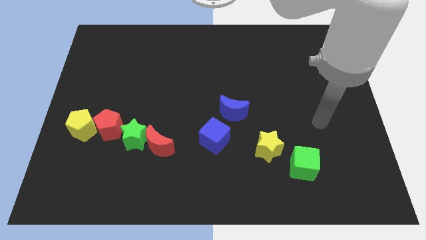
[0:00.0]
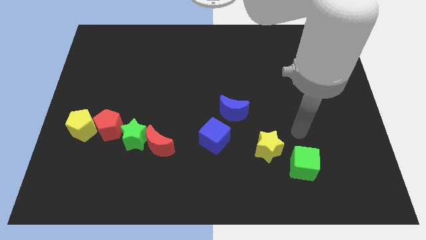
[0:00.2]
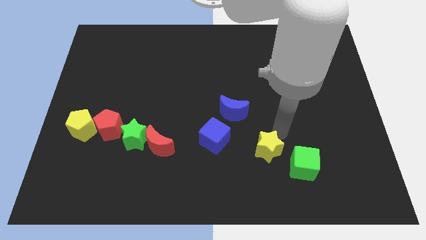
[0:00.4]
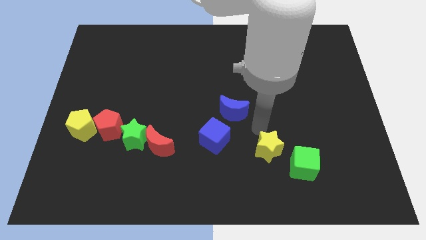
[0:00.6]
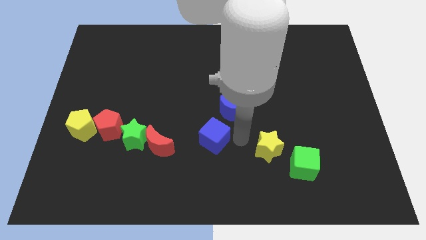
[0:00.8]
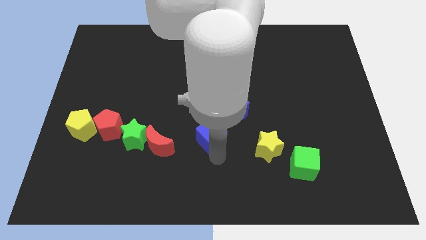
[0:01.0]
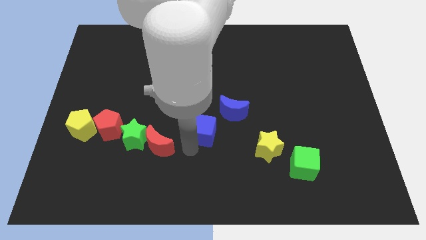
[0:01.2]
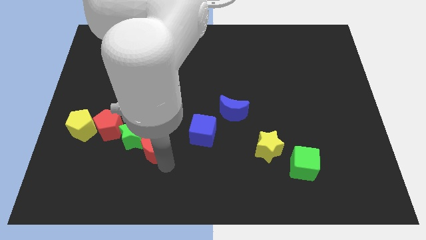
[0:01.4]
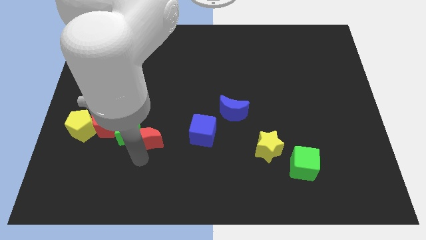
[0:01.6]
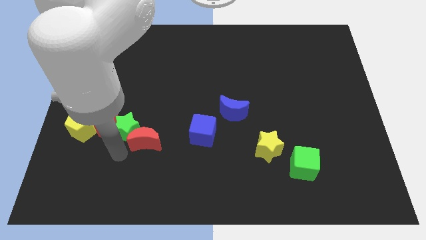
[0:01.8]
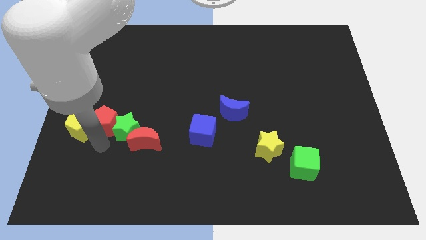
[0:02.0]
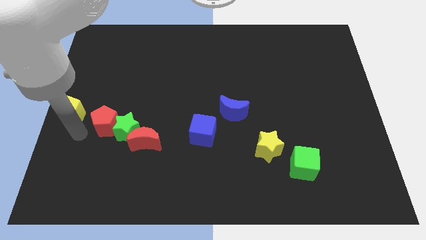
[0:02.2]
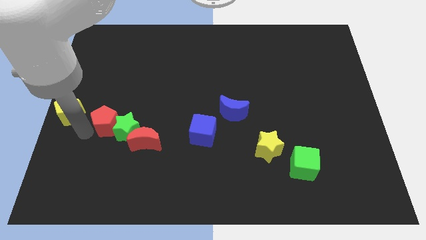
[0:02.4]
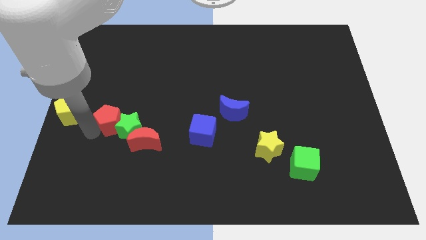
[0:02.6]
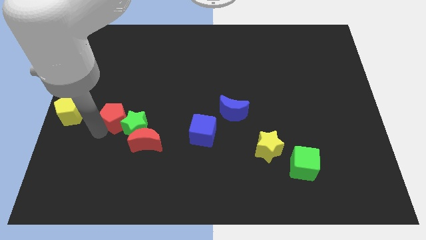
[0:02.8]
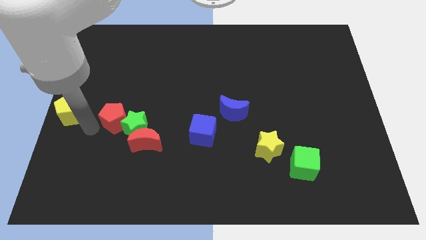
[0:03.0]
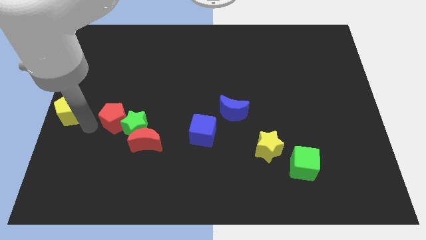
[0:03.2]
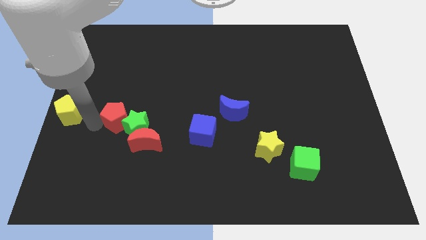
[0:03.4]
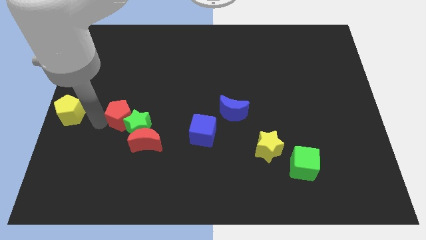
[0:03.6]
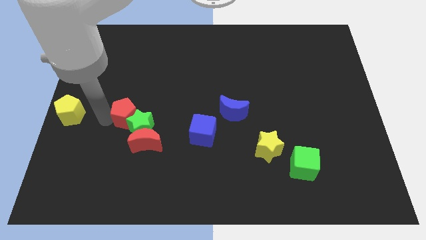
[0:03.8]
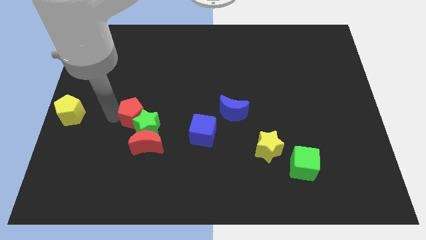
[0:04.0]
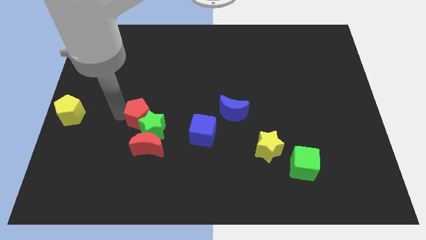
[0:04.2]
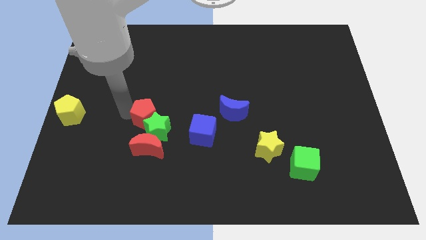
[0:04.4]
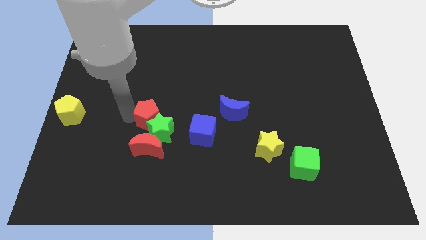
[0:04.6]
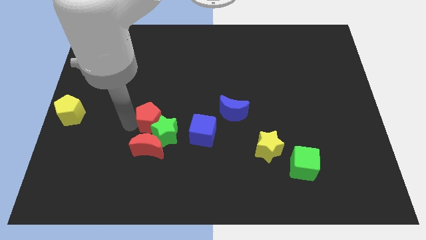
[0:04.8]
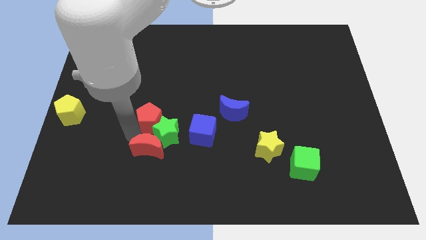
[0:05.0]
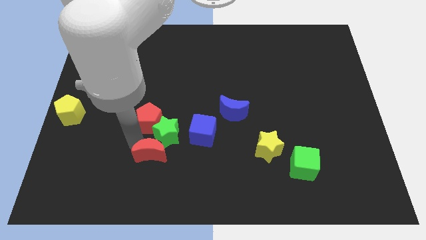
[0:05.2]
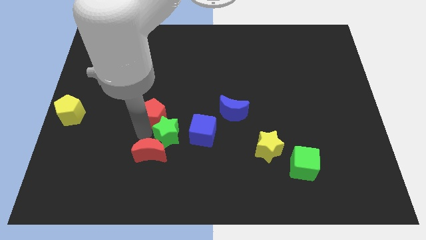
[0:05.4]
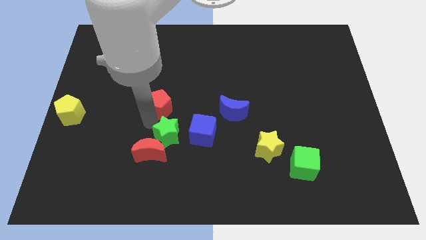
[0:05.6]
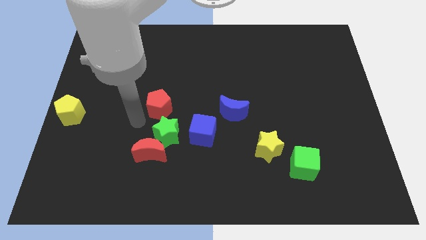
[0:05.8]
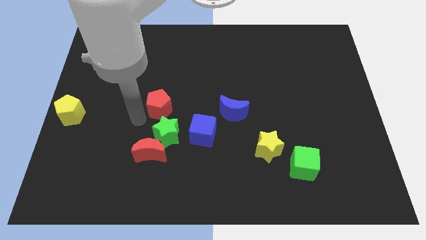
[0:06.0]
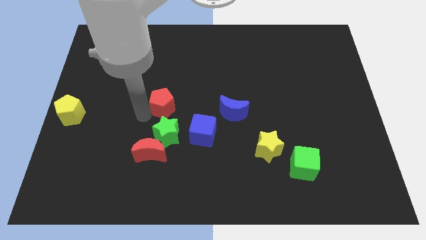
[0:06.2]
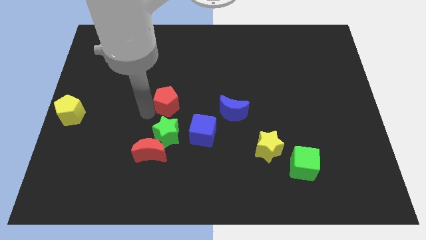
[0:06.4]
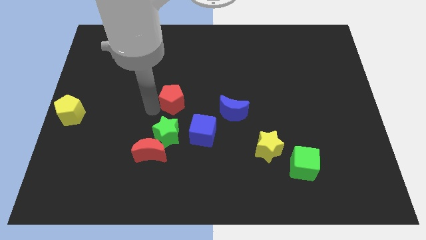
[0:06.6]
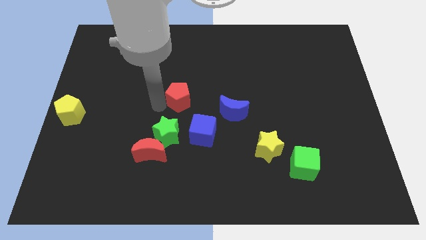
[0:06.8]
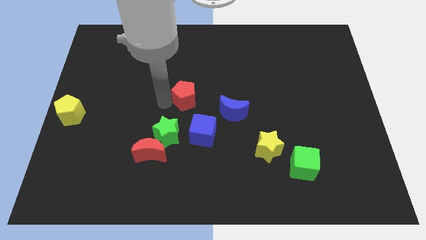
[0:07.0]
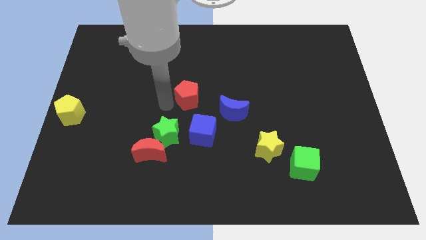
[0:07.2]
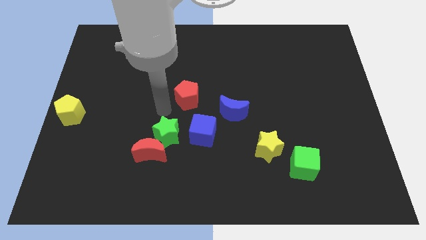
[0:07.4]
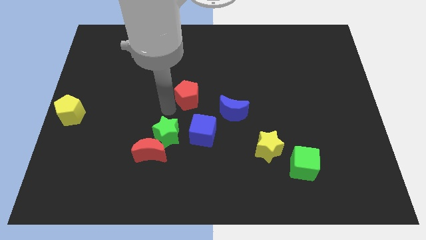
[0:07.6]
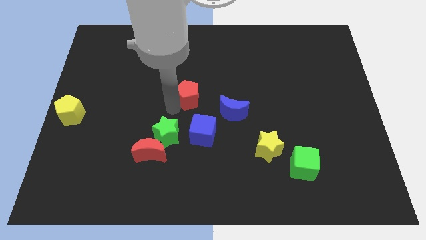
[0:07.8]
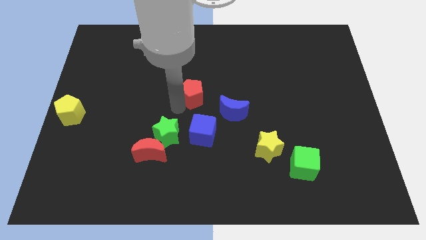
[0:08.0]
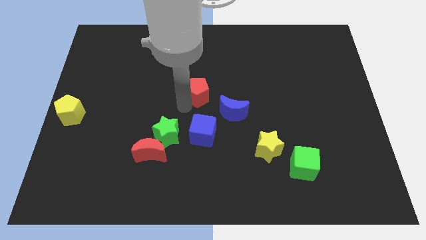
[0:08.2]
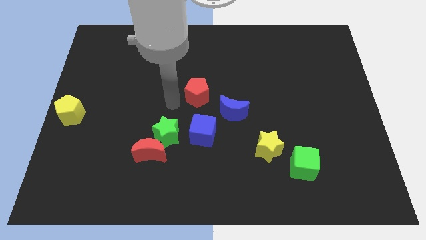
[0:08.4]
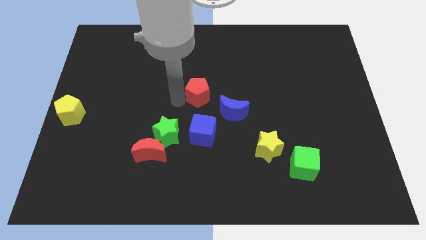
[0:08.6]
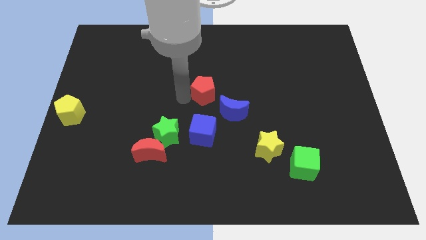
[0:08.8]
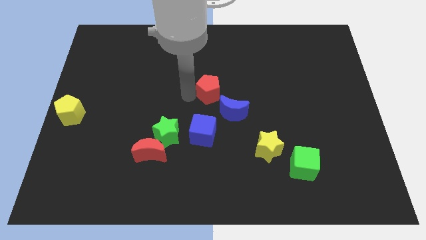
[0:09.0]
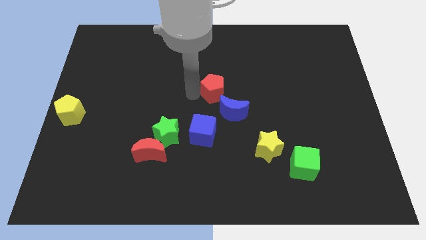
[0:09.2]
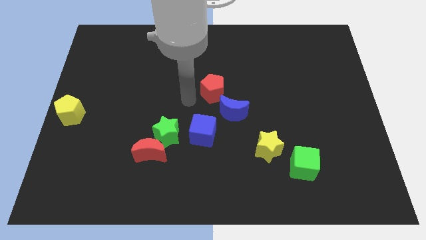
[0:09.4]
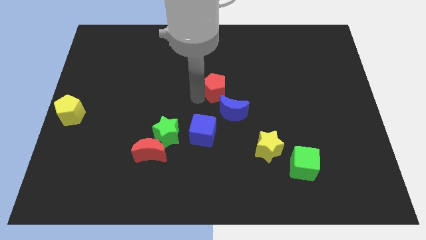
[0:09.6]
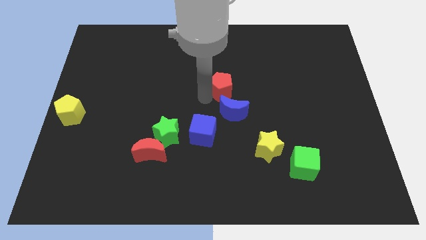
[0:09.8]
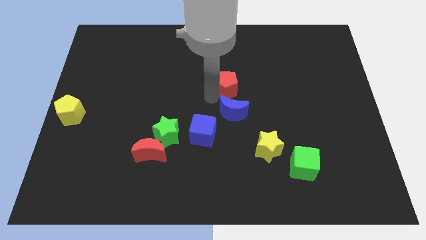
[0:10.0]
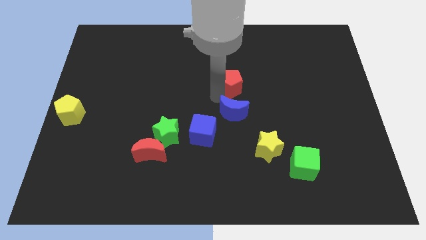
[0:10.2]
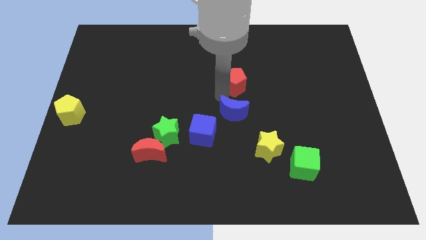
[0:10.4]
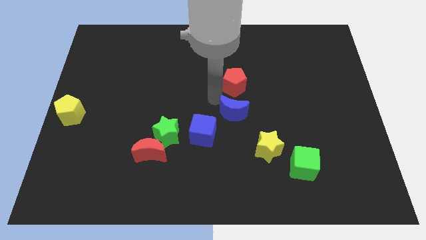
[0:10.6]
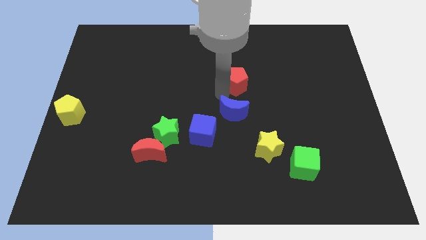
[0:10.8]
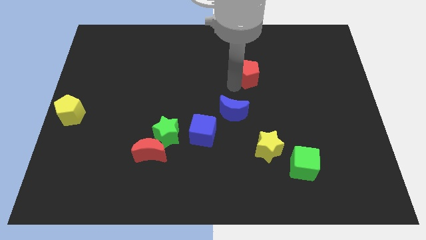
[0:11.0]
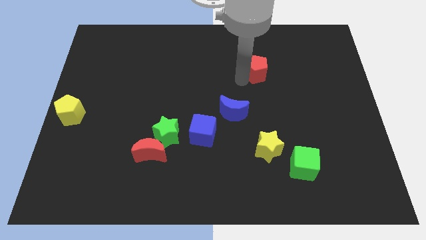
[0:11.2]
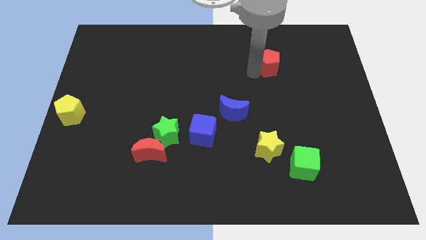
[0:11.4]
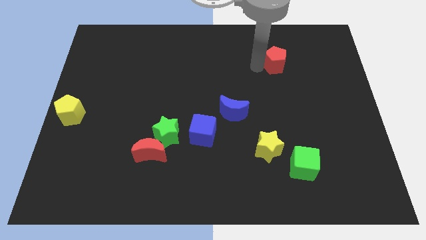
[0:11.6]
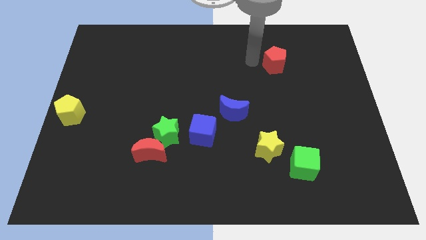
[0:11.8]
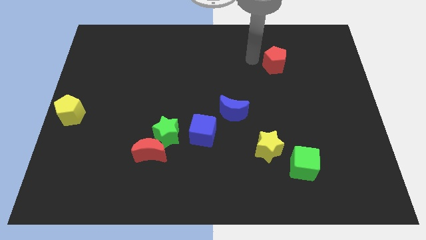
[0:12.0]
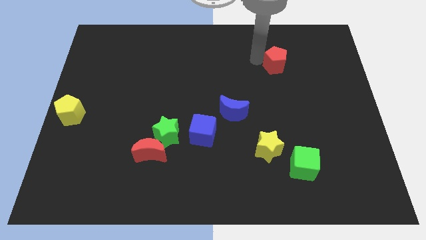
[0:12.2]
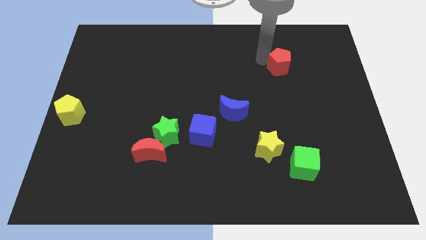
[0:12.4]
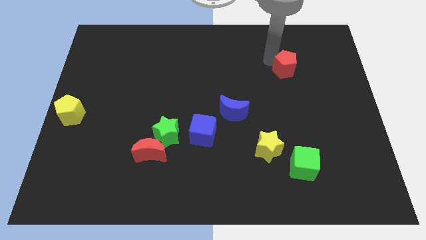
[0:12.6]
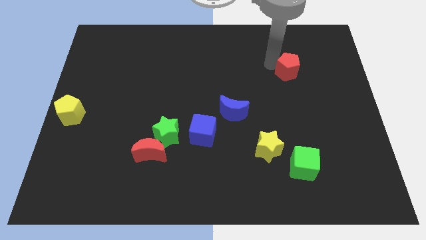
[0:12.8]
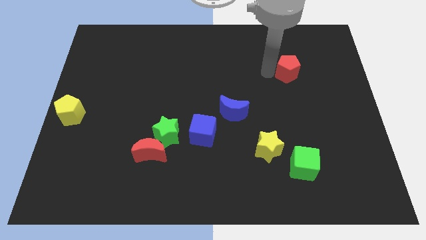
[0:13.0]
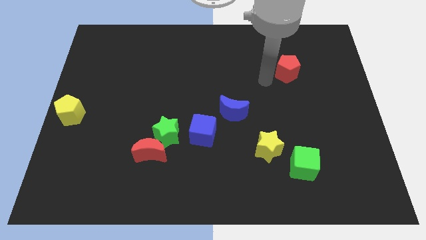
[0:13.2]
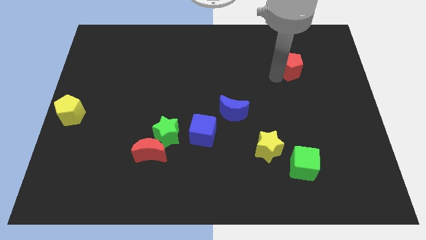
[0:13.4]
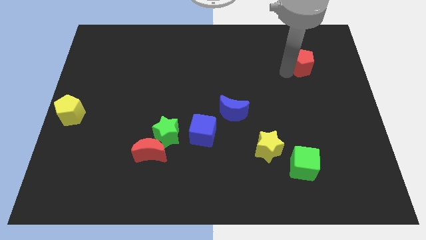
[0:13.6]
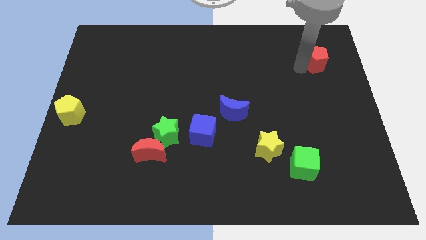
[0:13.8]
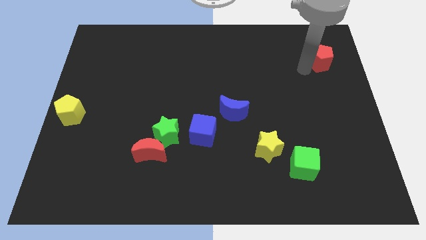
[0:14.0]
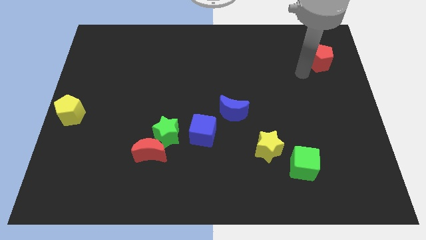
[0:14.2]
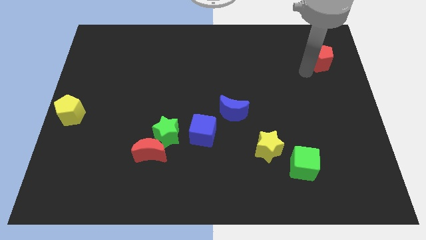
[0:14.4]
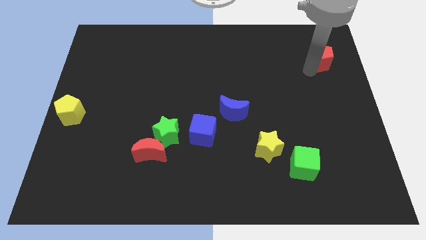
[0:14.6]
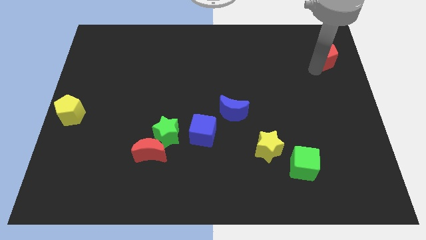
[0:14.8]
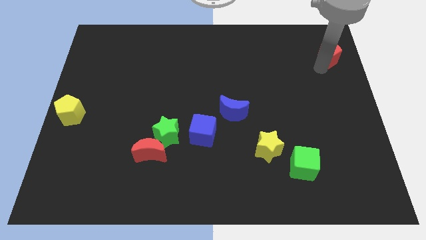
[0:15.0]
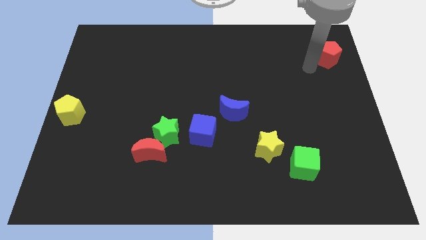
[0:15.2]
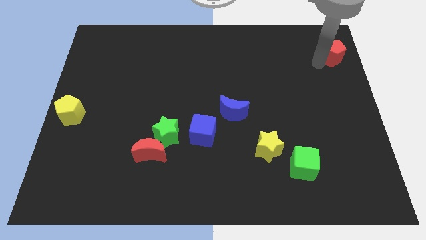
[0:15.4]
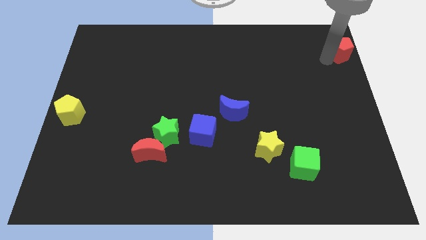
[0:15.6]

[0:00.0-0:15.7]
push the red pentagon to the top right corner

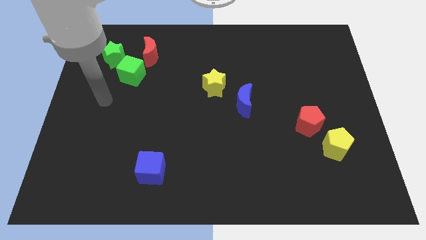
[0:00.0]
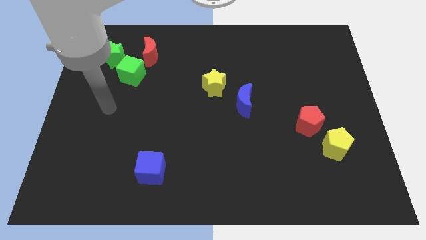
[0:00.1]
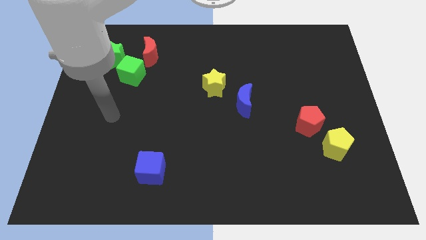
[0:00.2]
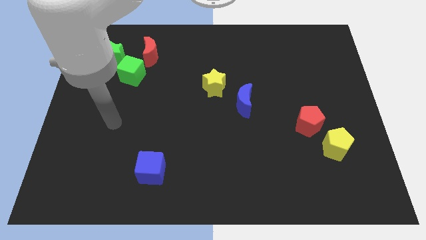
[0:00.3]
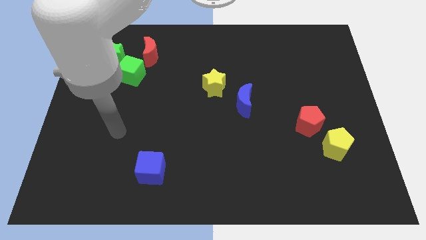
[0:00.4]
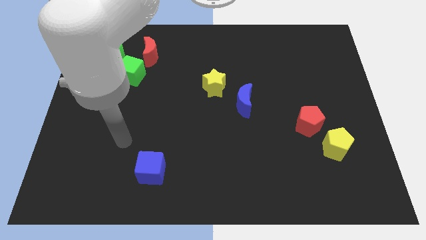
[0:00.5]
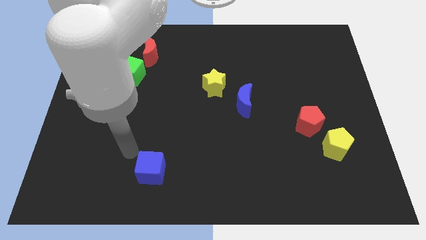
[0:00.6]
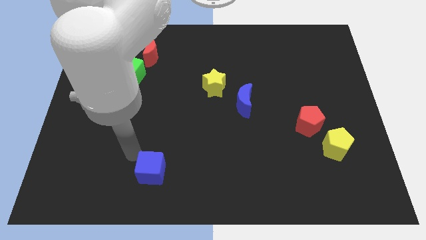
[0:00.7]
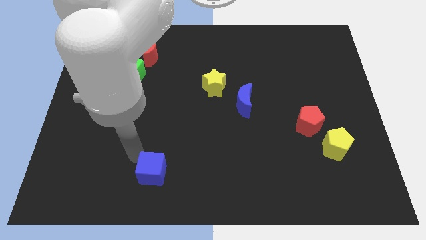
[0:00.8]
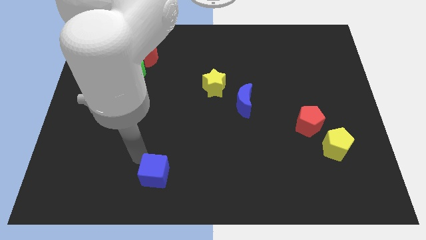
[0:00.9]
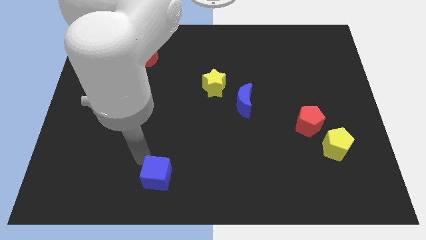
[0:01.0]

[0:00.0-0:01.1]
put the blue cube to the bottom
